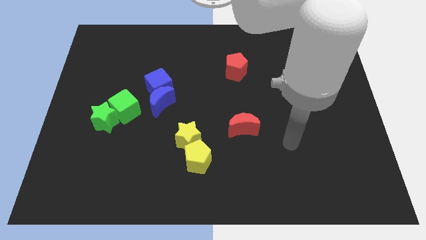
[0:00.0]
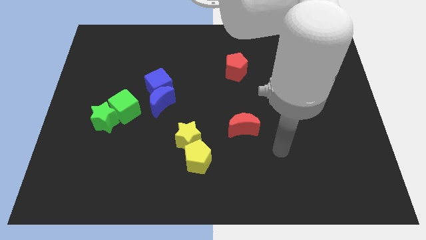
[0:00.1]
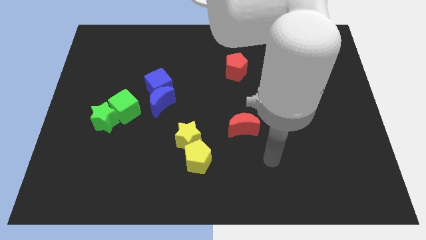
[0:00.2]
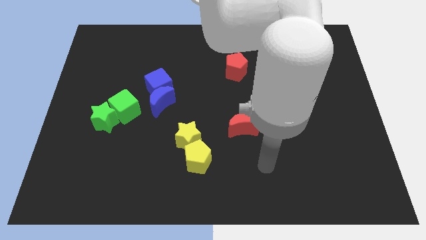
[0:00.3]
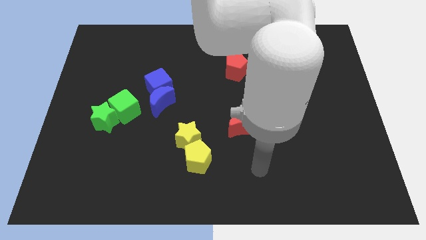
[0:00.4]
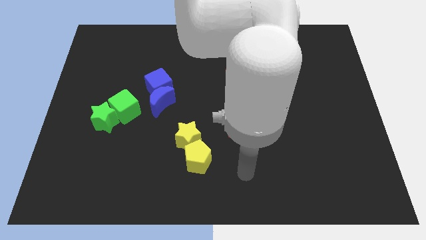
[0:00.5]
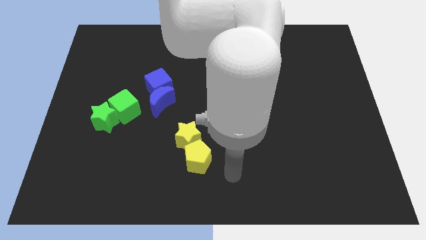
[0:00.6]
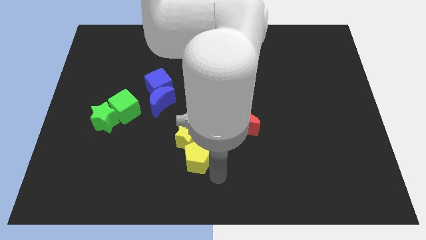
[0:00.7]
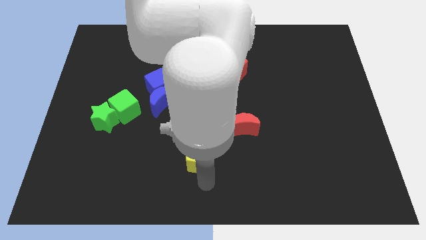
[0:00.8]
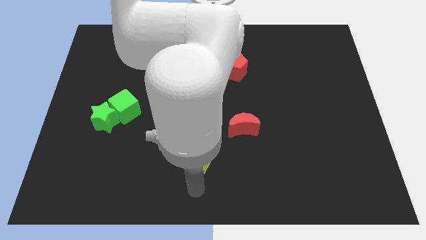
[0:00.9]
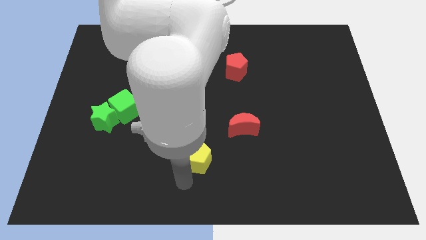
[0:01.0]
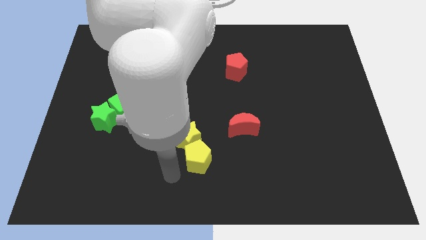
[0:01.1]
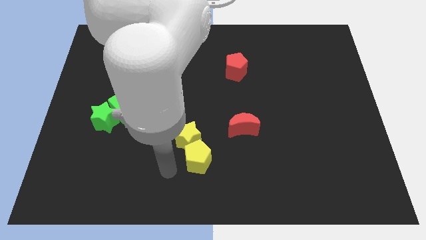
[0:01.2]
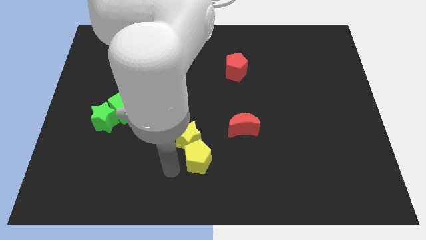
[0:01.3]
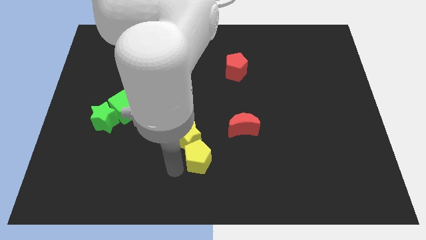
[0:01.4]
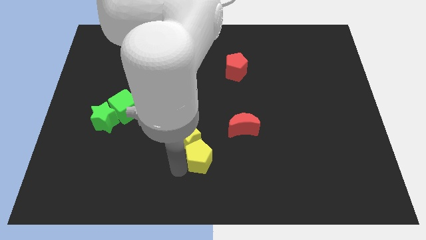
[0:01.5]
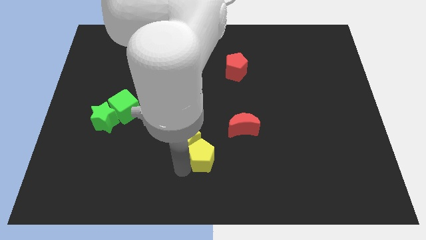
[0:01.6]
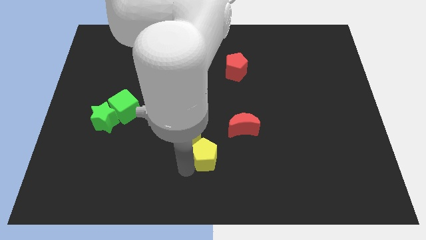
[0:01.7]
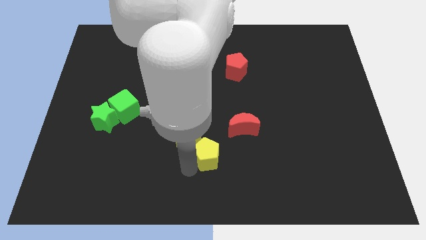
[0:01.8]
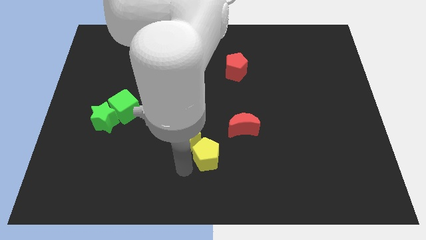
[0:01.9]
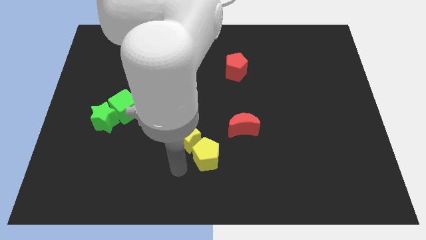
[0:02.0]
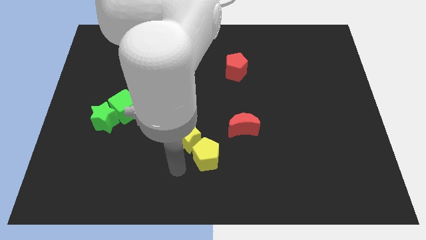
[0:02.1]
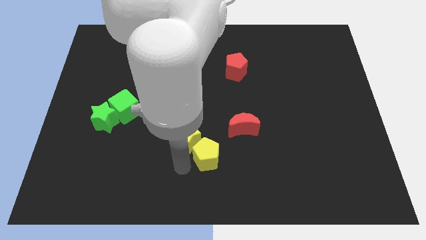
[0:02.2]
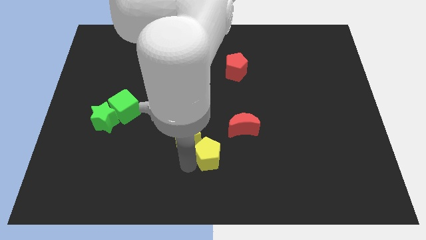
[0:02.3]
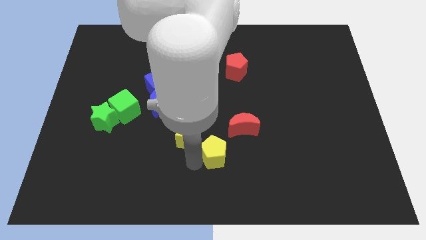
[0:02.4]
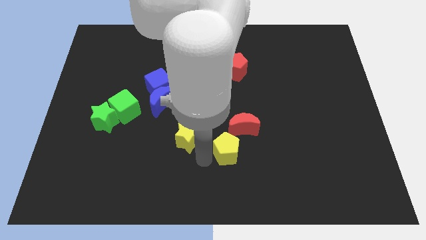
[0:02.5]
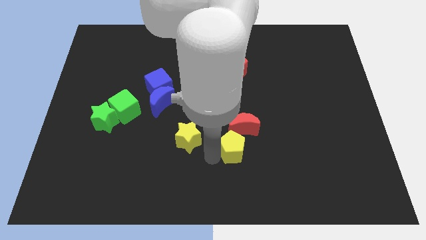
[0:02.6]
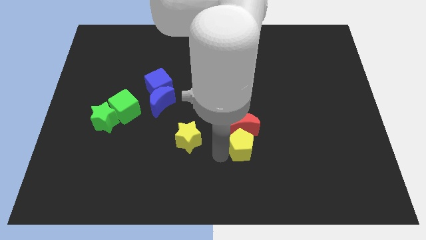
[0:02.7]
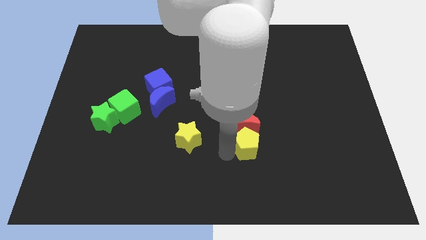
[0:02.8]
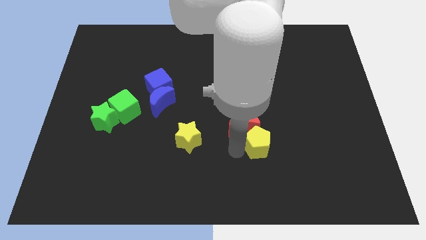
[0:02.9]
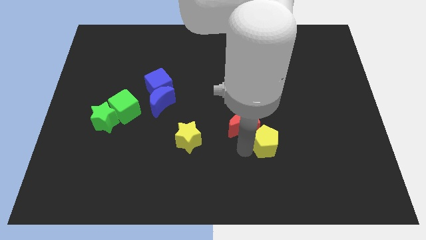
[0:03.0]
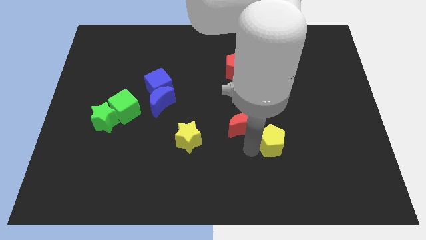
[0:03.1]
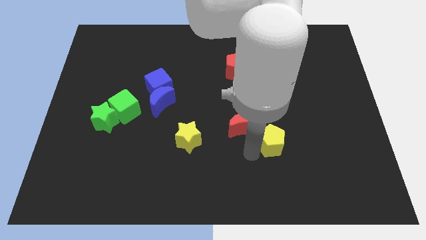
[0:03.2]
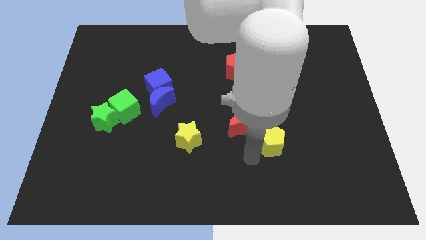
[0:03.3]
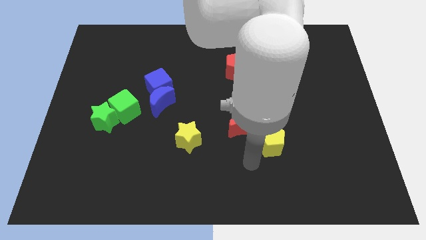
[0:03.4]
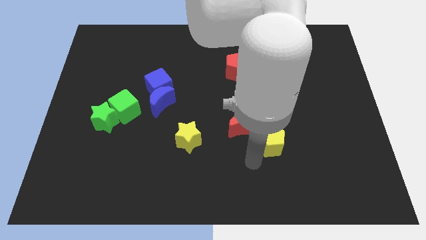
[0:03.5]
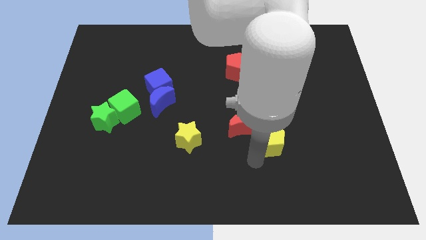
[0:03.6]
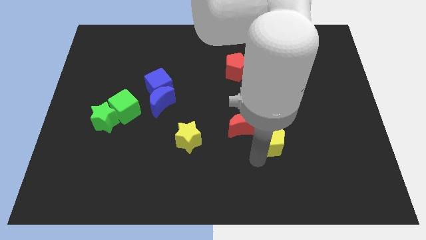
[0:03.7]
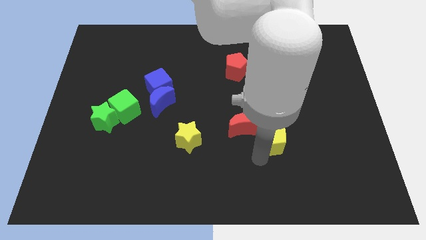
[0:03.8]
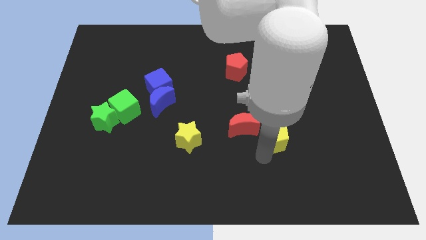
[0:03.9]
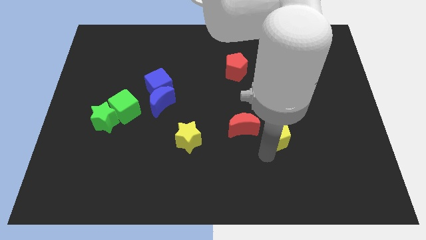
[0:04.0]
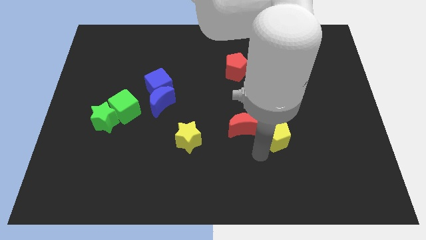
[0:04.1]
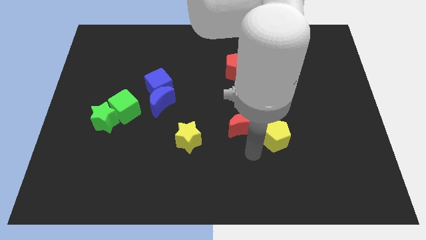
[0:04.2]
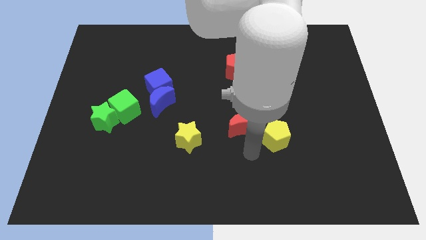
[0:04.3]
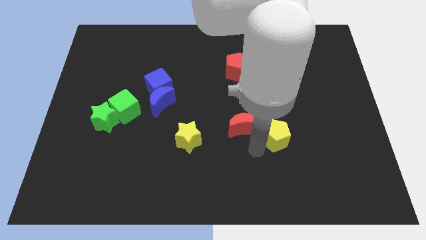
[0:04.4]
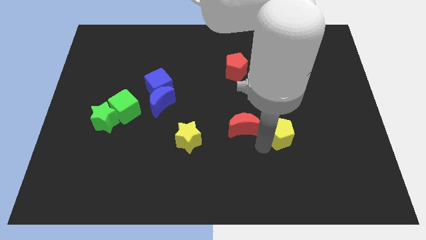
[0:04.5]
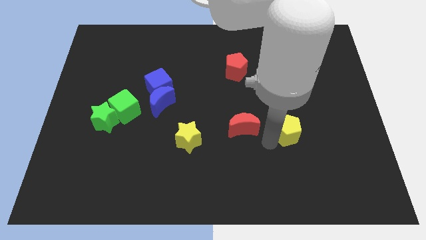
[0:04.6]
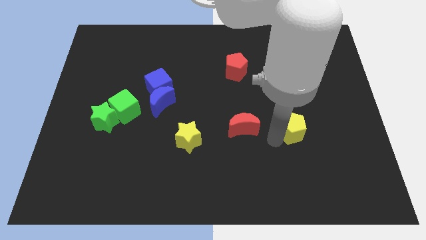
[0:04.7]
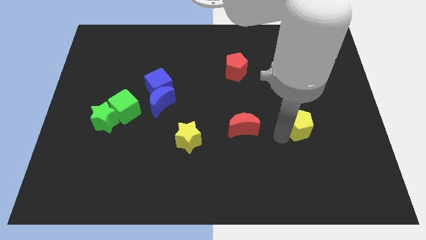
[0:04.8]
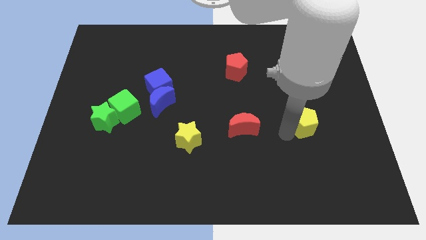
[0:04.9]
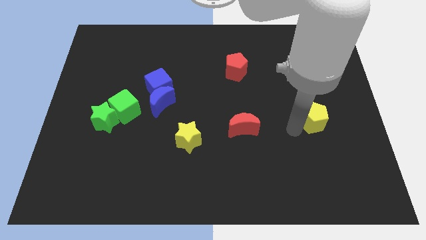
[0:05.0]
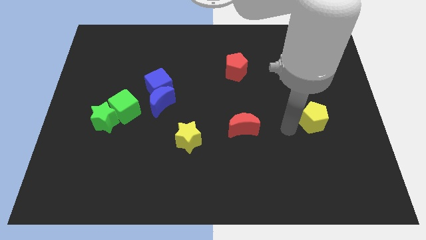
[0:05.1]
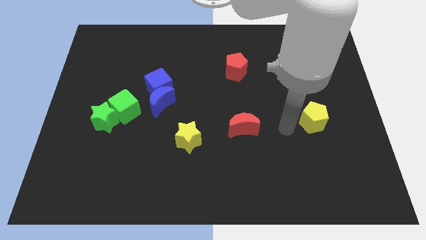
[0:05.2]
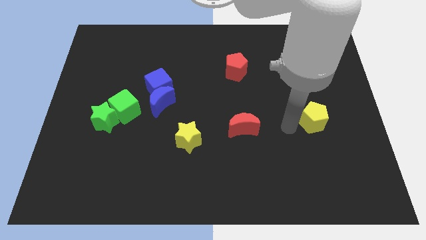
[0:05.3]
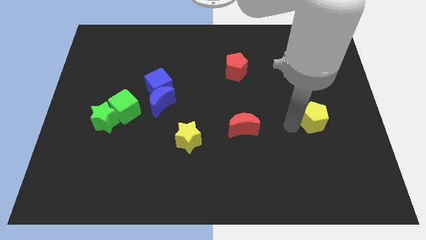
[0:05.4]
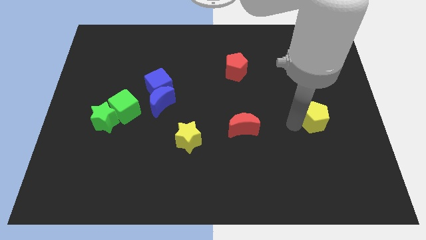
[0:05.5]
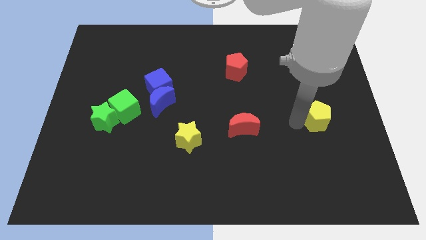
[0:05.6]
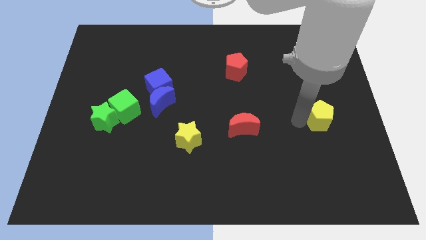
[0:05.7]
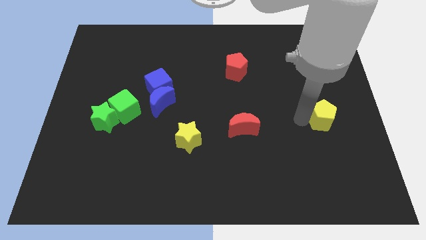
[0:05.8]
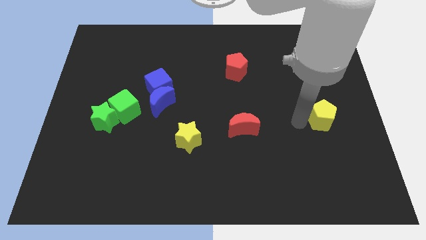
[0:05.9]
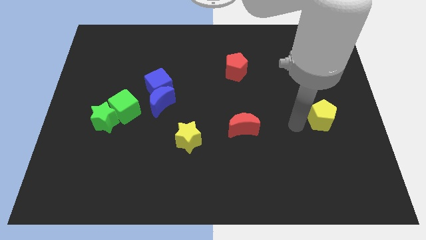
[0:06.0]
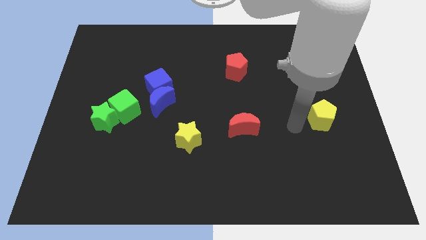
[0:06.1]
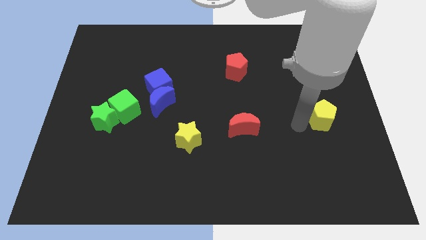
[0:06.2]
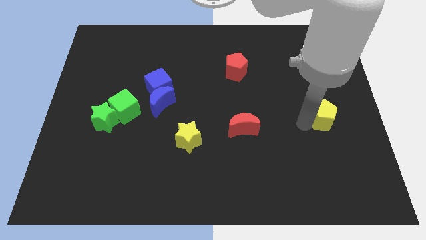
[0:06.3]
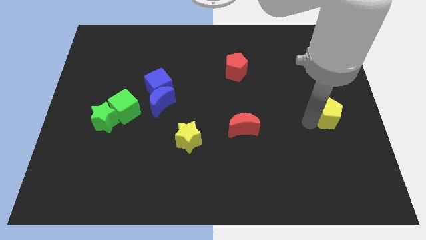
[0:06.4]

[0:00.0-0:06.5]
move the yellow pentagon to the right side of the board

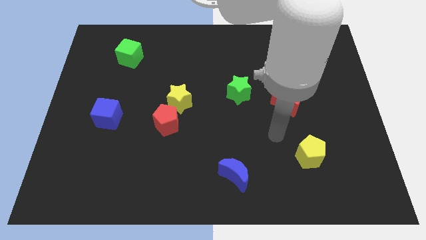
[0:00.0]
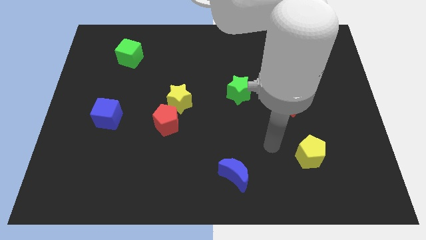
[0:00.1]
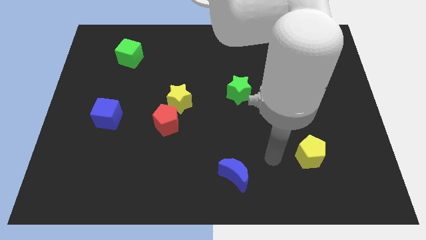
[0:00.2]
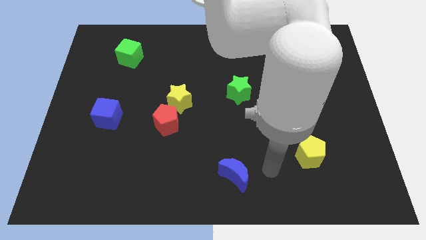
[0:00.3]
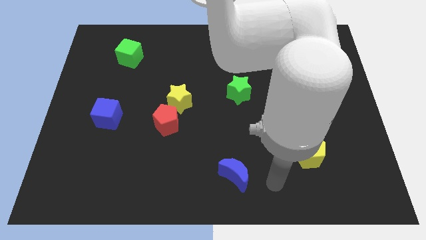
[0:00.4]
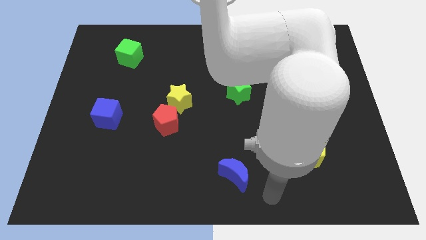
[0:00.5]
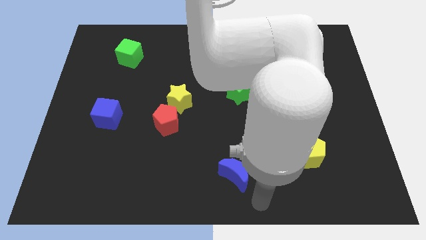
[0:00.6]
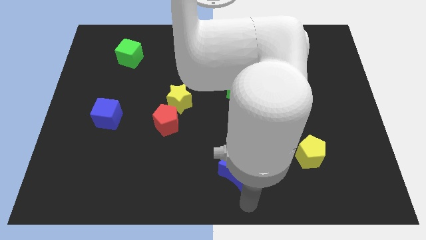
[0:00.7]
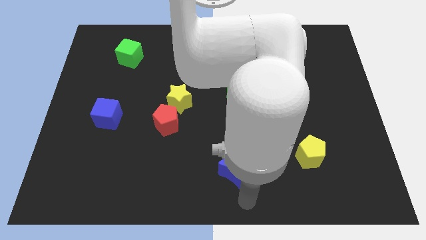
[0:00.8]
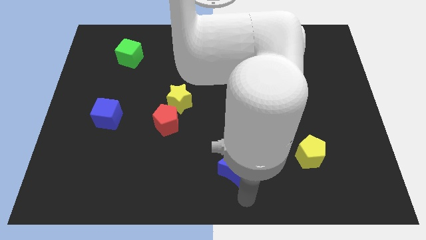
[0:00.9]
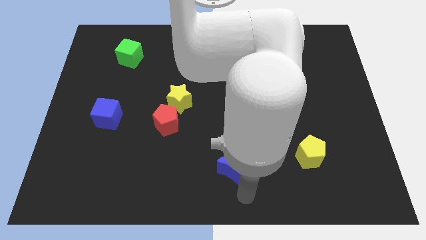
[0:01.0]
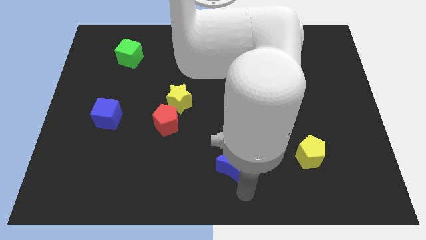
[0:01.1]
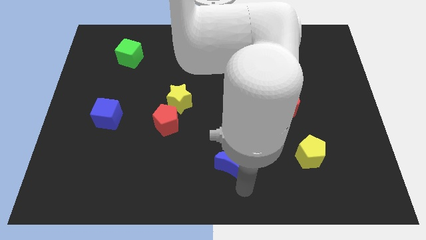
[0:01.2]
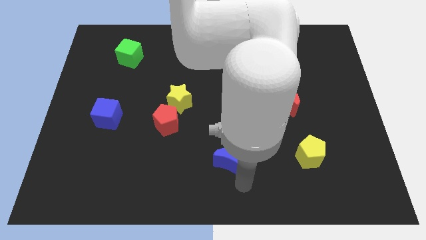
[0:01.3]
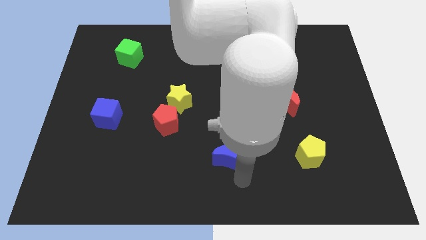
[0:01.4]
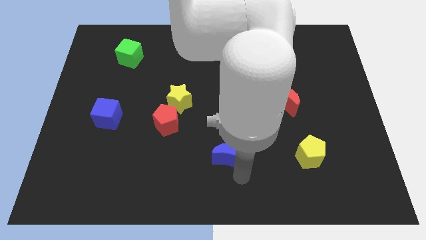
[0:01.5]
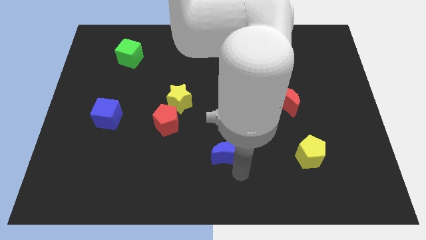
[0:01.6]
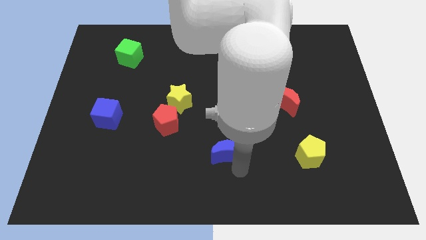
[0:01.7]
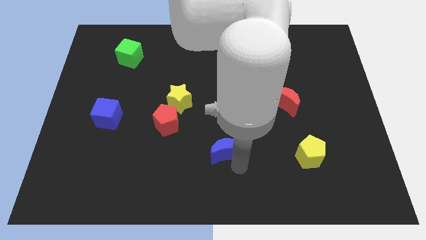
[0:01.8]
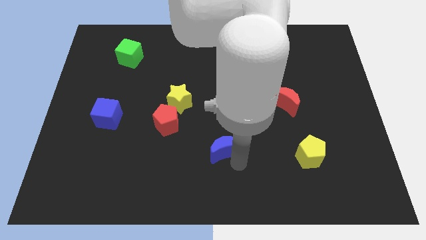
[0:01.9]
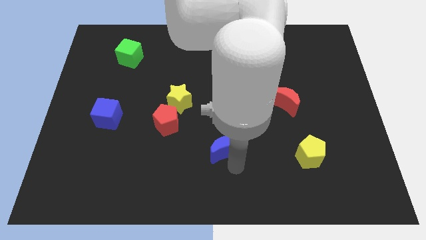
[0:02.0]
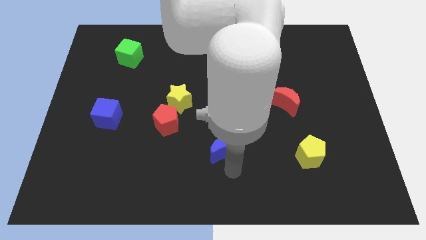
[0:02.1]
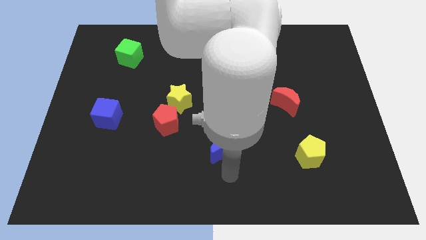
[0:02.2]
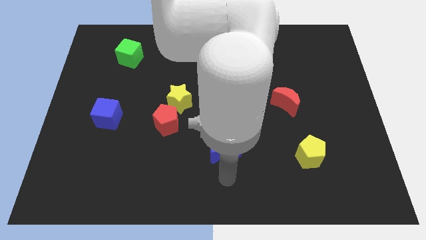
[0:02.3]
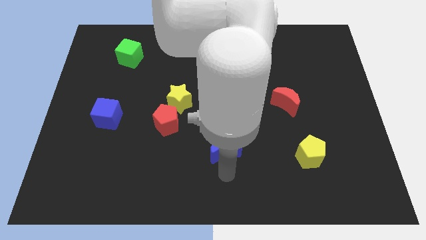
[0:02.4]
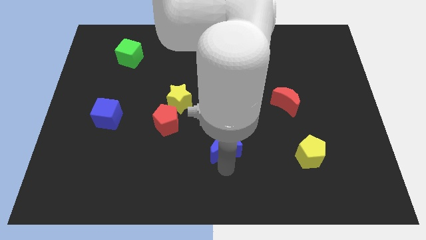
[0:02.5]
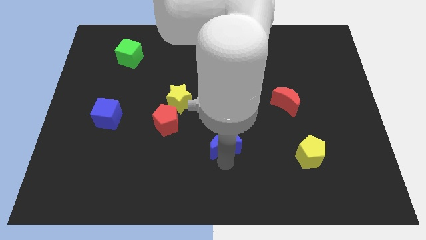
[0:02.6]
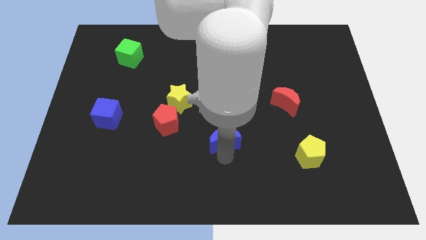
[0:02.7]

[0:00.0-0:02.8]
push the blue moon to the center of the board
